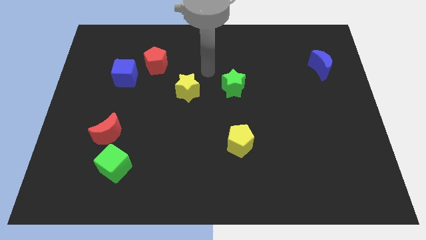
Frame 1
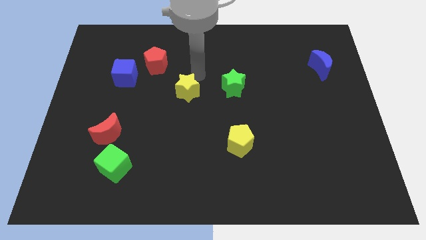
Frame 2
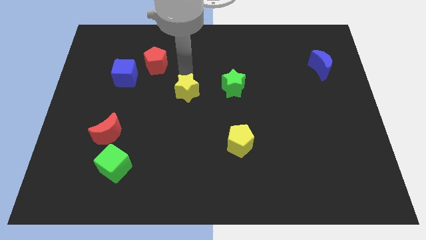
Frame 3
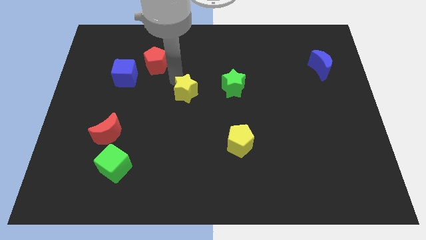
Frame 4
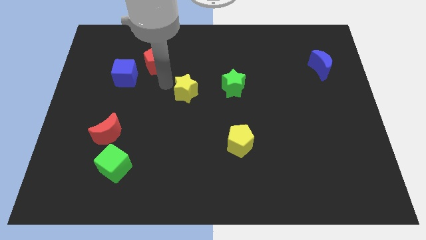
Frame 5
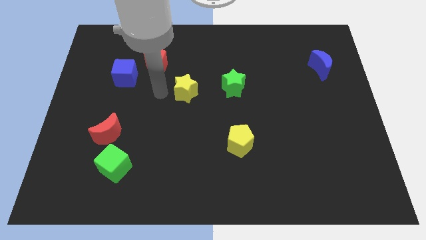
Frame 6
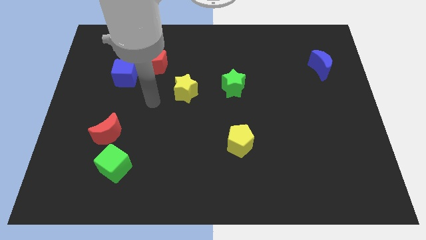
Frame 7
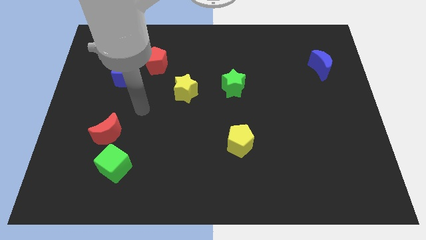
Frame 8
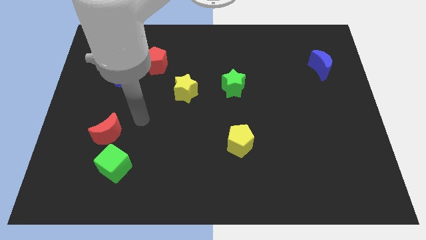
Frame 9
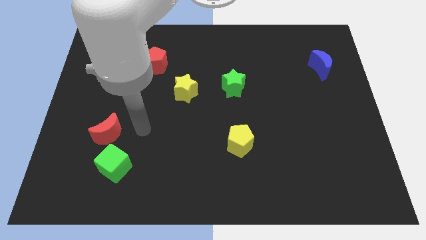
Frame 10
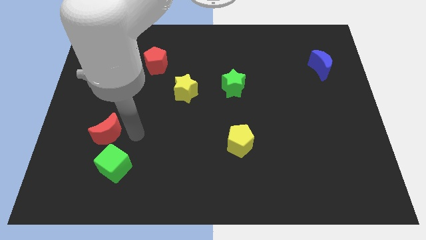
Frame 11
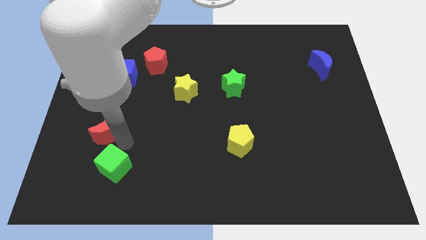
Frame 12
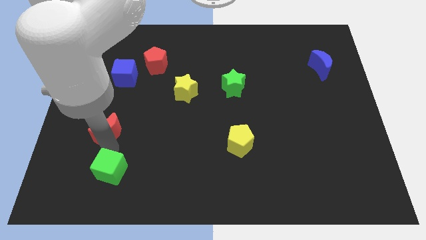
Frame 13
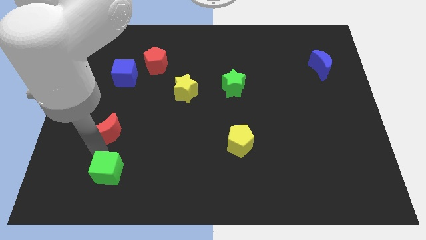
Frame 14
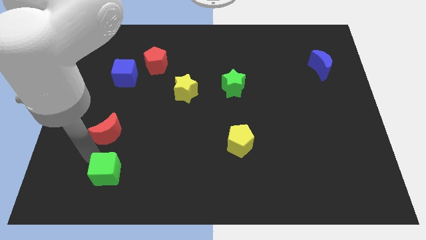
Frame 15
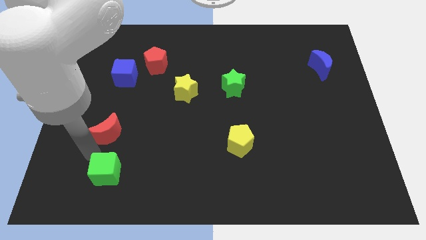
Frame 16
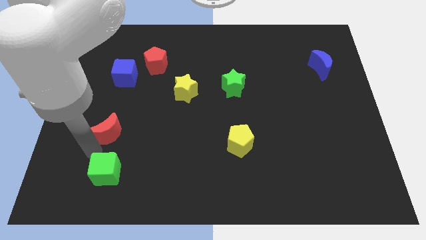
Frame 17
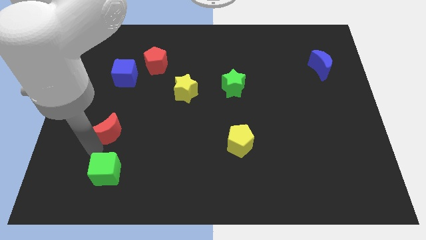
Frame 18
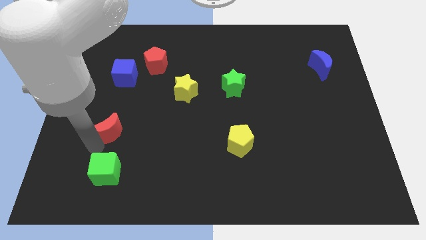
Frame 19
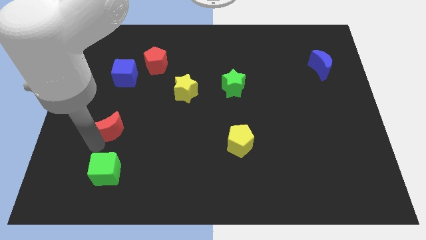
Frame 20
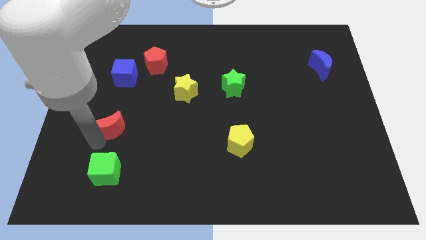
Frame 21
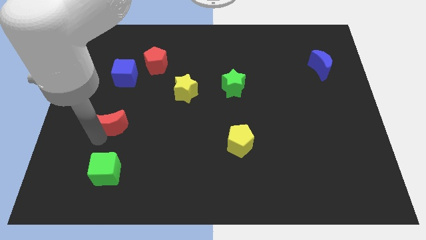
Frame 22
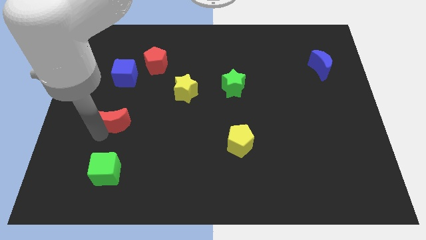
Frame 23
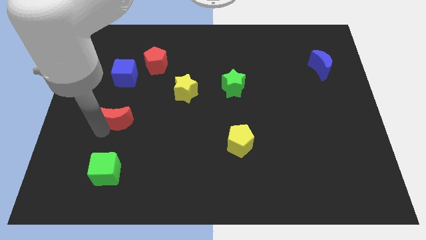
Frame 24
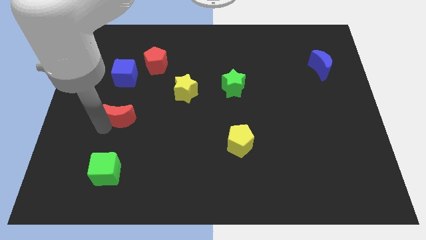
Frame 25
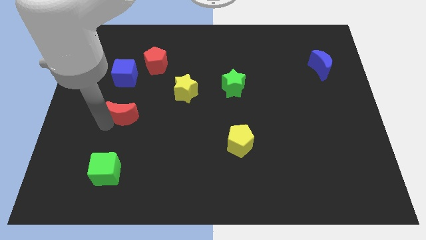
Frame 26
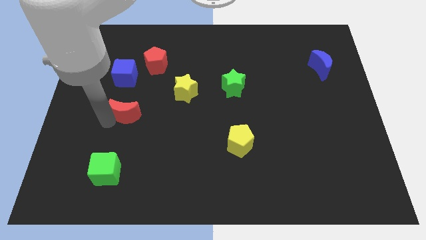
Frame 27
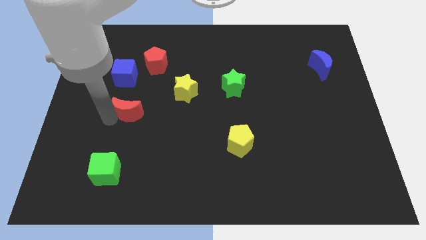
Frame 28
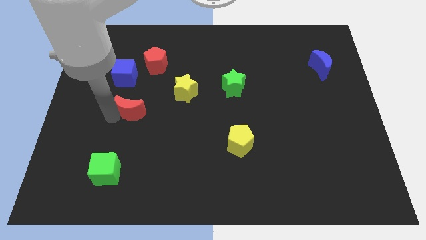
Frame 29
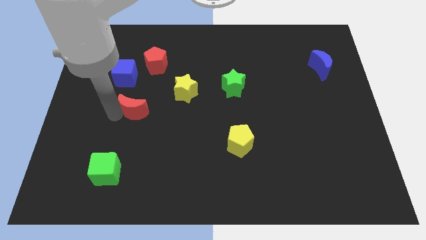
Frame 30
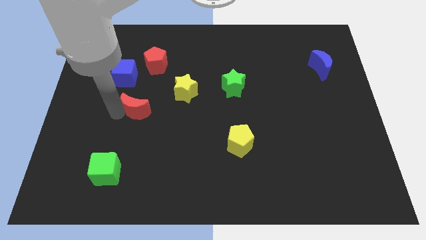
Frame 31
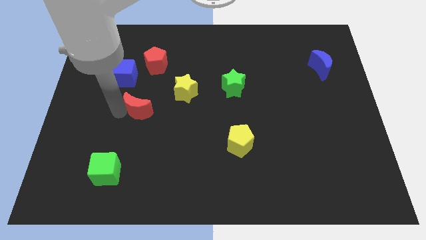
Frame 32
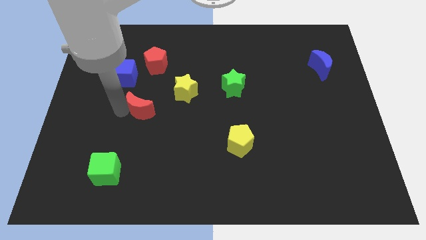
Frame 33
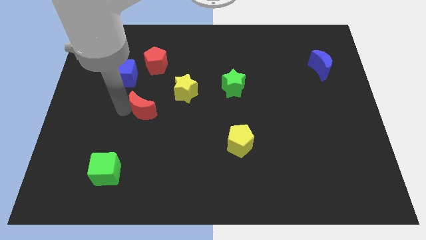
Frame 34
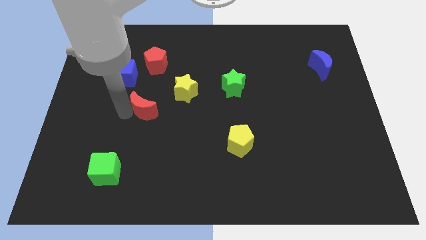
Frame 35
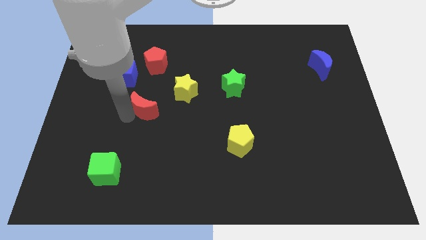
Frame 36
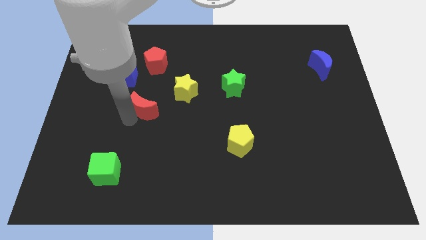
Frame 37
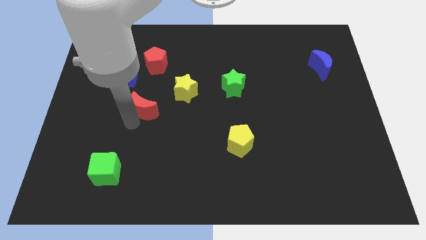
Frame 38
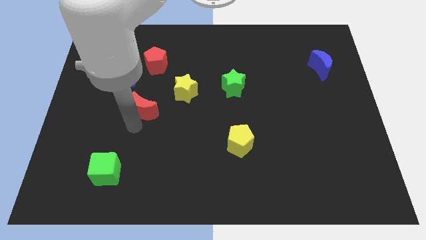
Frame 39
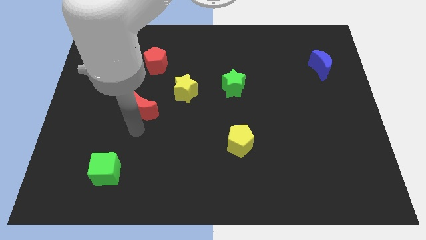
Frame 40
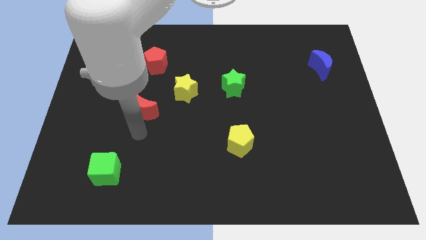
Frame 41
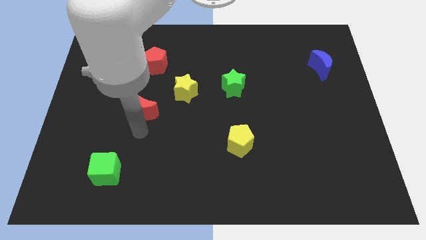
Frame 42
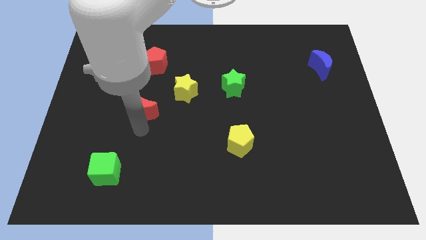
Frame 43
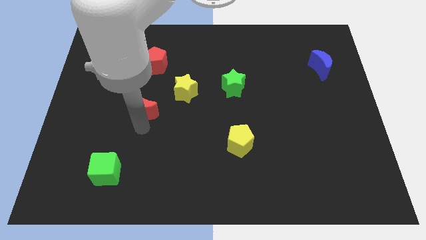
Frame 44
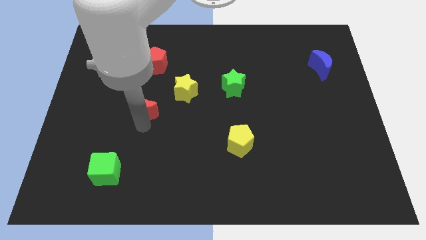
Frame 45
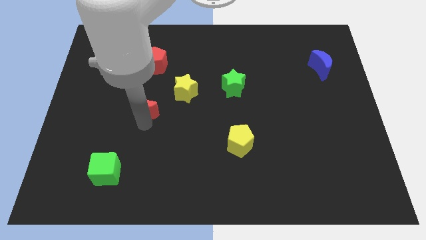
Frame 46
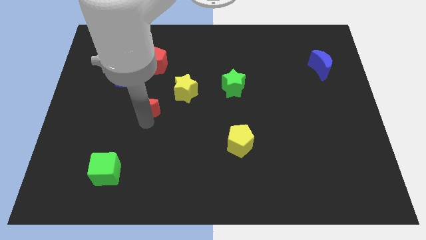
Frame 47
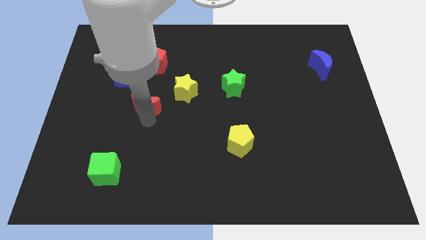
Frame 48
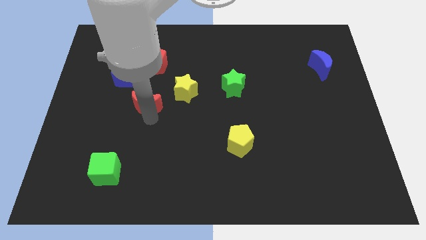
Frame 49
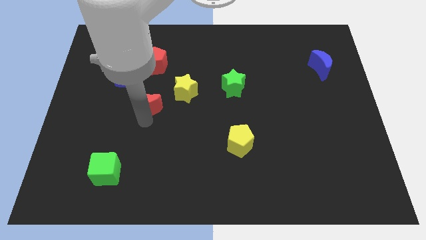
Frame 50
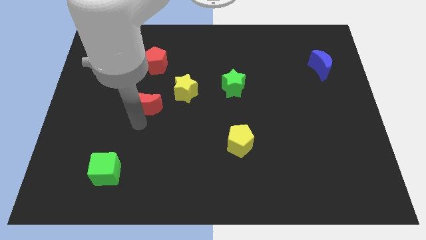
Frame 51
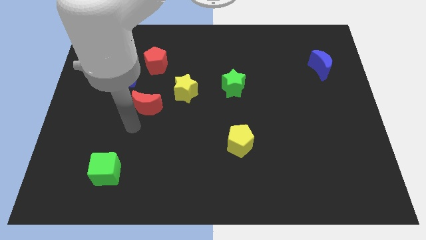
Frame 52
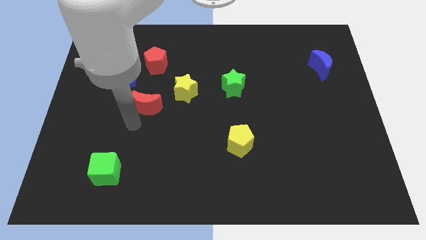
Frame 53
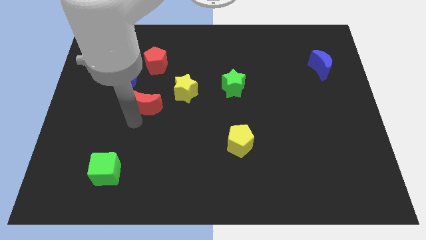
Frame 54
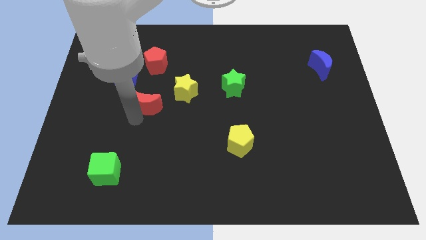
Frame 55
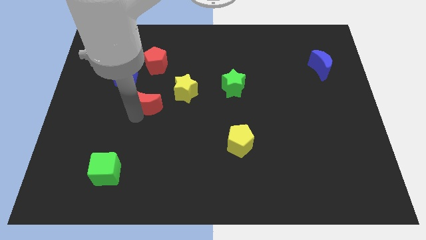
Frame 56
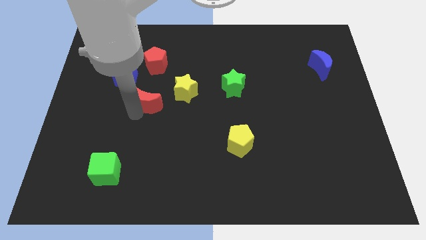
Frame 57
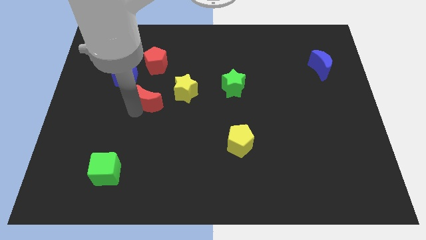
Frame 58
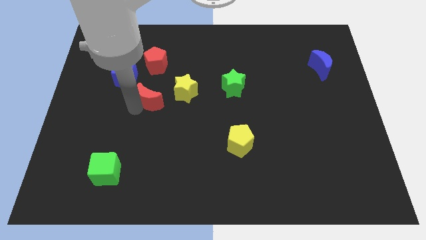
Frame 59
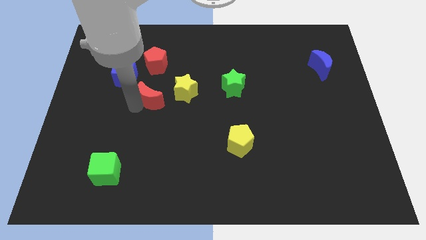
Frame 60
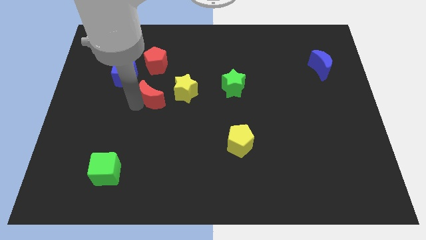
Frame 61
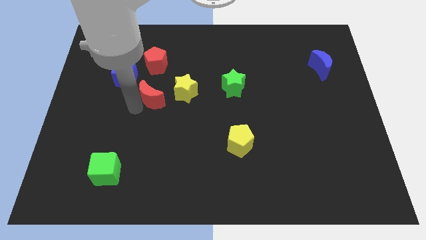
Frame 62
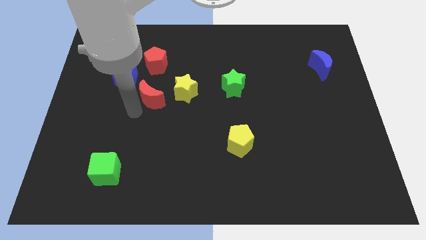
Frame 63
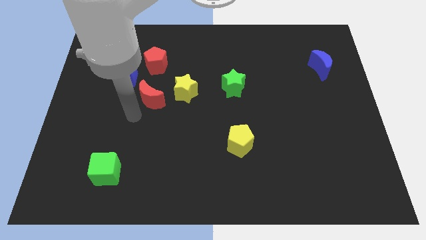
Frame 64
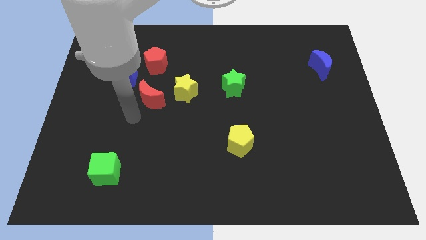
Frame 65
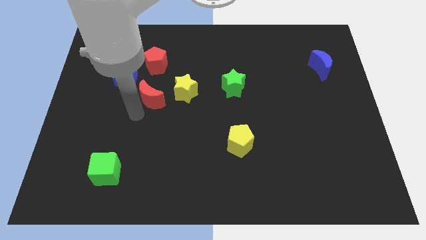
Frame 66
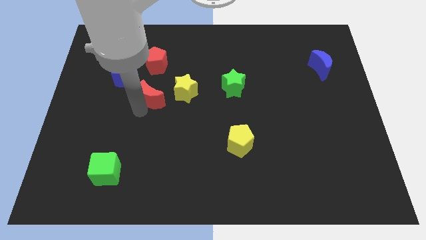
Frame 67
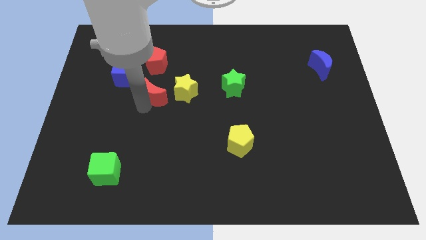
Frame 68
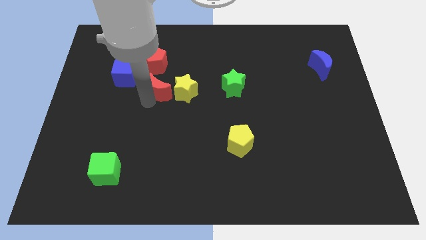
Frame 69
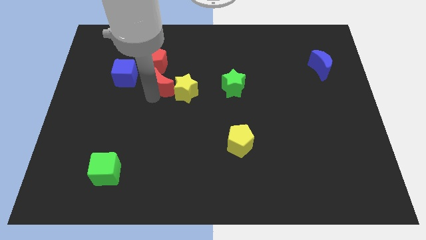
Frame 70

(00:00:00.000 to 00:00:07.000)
put the red moon diagonally down and to the right of the red pentagon

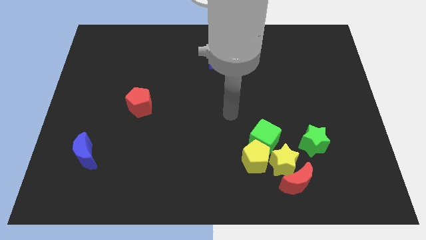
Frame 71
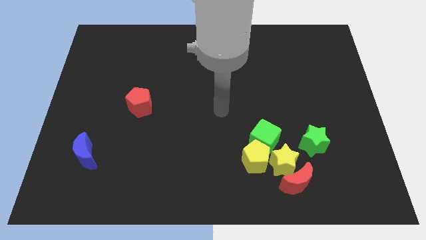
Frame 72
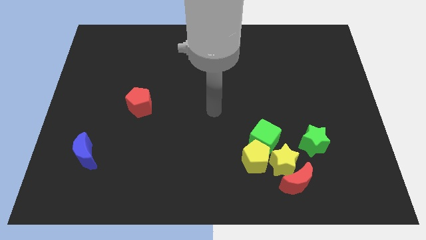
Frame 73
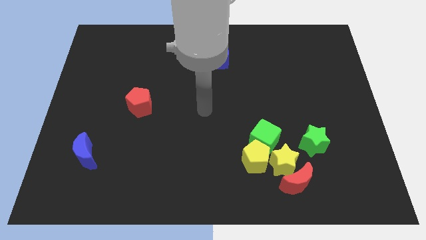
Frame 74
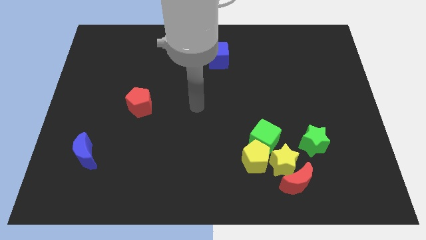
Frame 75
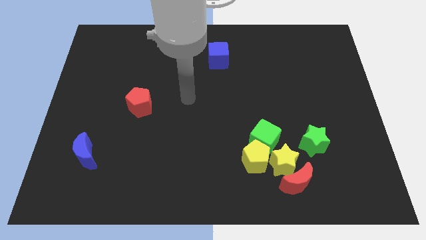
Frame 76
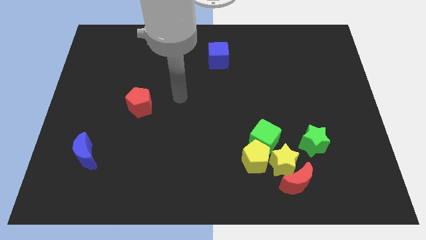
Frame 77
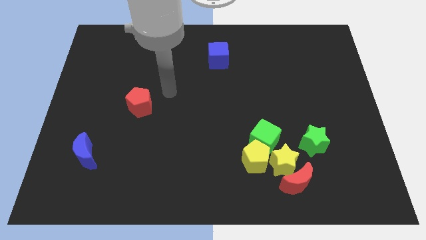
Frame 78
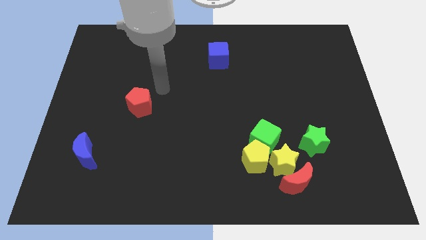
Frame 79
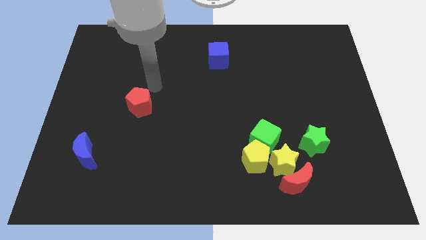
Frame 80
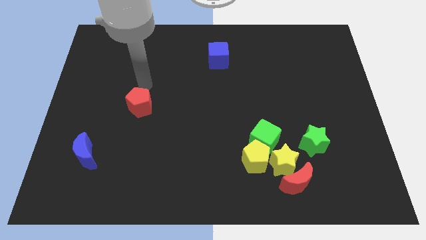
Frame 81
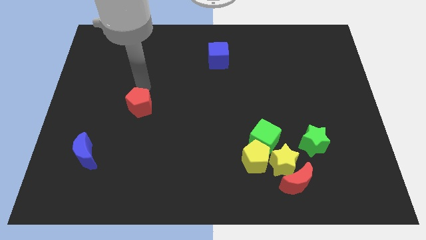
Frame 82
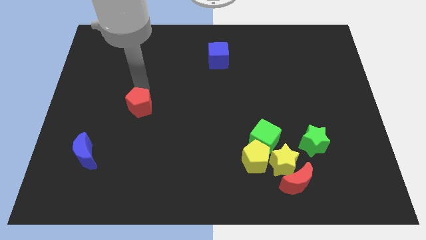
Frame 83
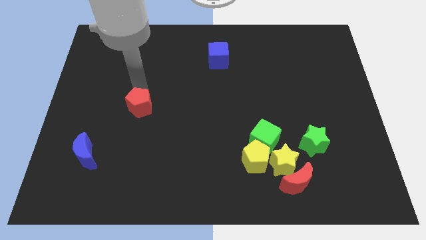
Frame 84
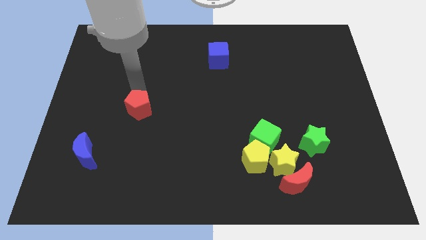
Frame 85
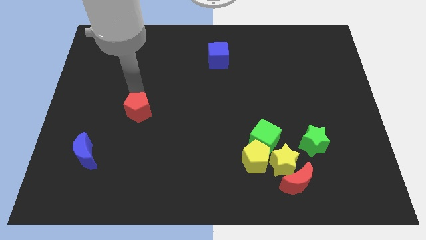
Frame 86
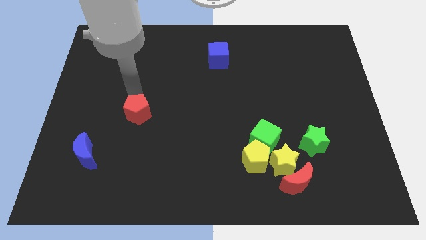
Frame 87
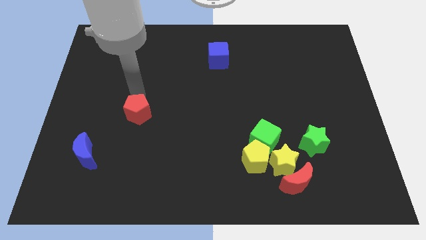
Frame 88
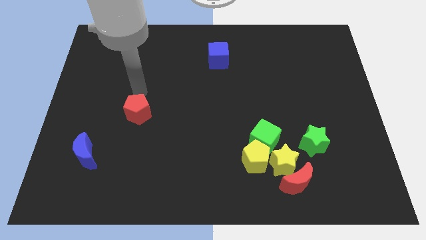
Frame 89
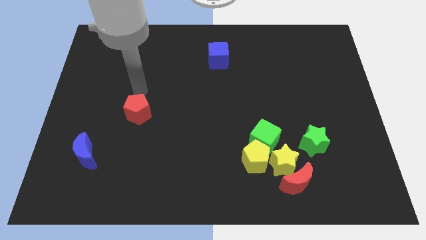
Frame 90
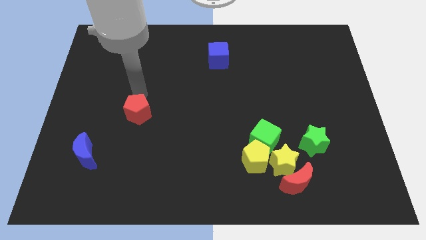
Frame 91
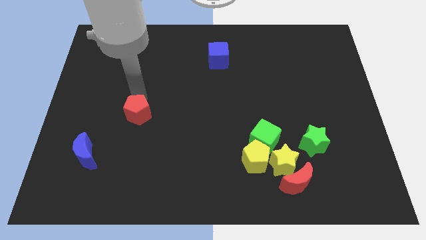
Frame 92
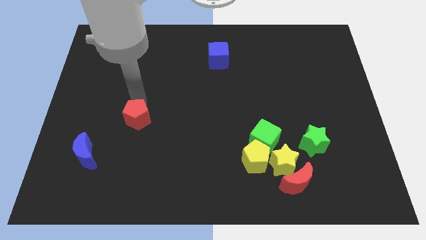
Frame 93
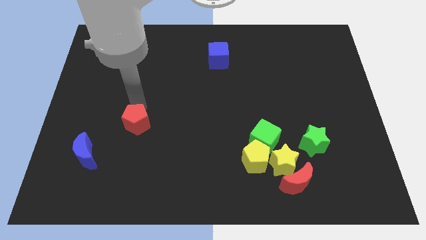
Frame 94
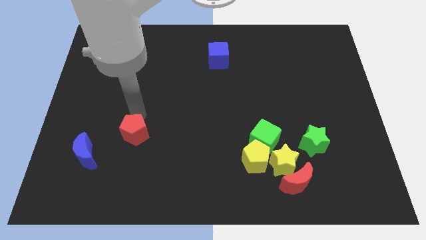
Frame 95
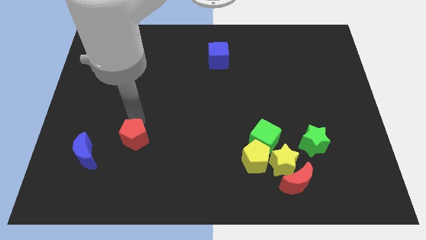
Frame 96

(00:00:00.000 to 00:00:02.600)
slide the red pentagon to the right side of the blue moon
